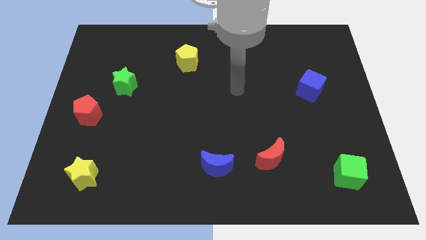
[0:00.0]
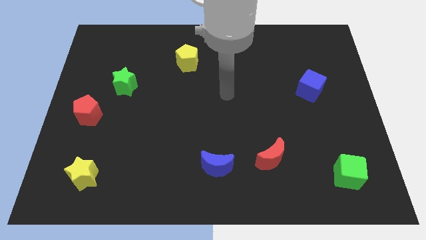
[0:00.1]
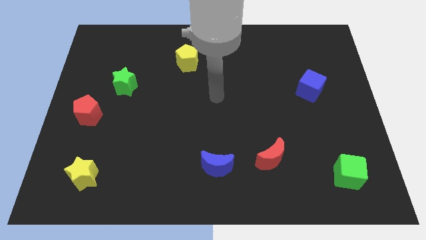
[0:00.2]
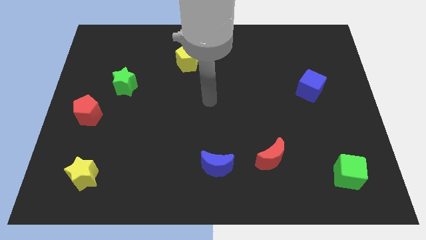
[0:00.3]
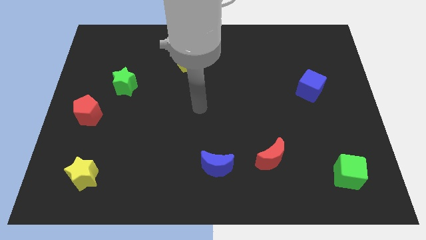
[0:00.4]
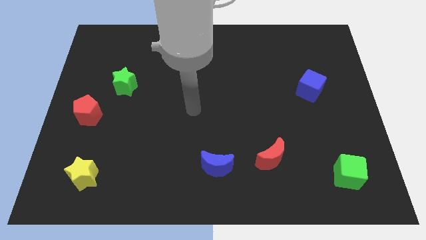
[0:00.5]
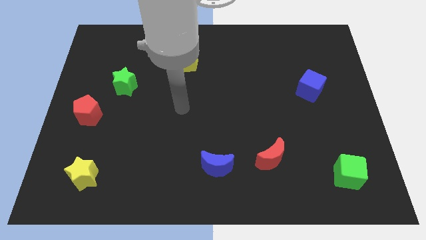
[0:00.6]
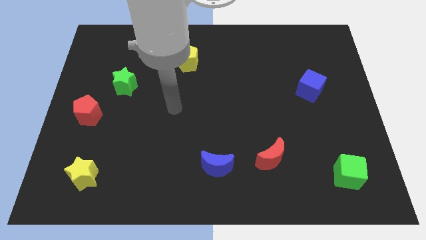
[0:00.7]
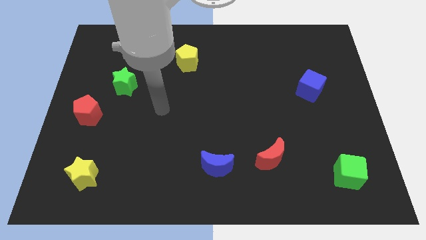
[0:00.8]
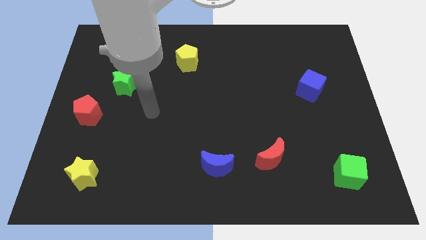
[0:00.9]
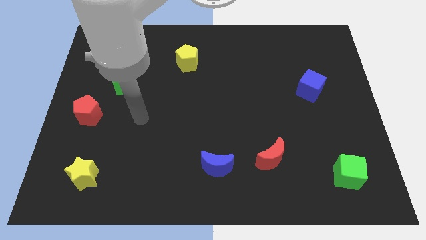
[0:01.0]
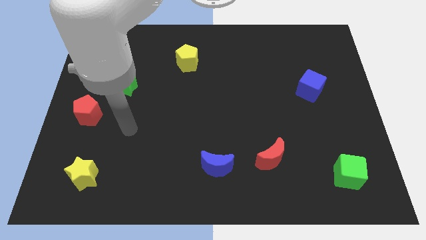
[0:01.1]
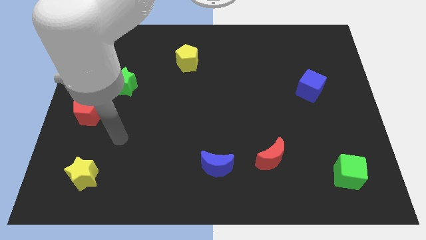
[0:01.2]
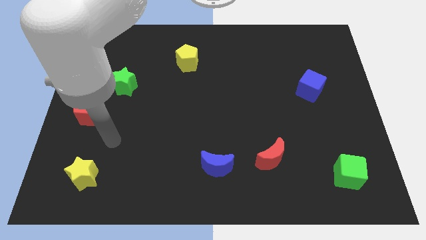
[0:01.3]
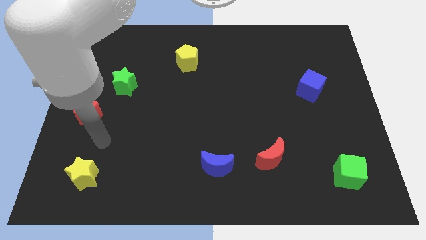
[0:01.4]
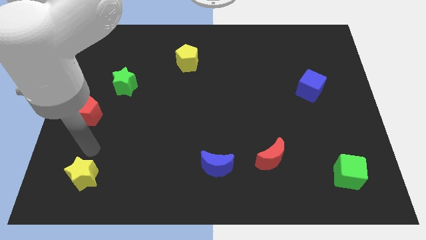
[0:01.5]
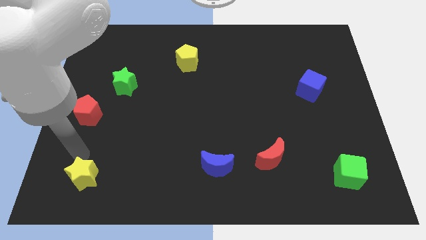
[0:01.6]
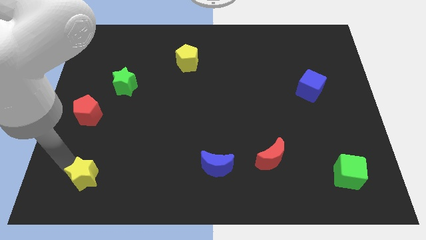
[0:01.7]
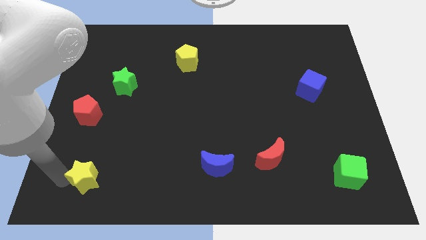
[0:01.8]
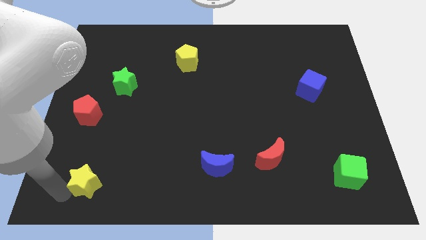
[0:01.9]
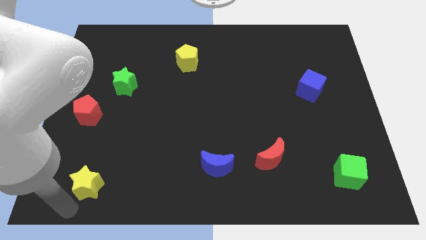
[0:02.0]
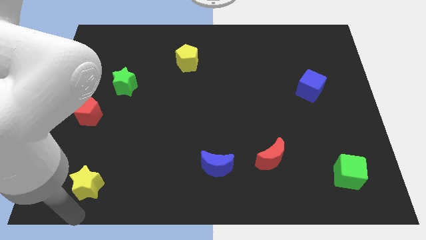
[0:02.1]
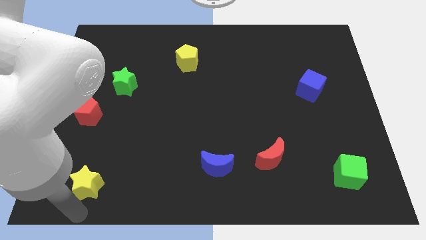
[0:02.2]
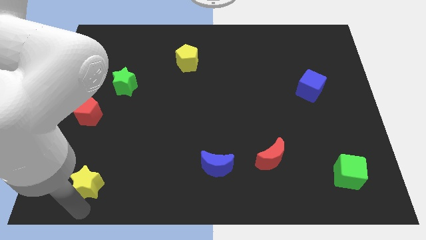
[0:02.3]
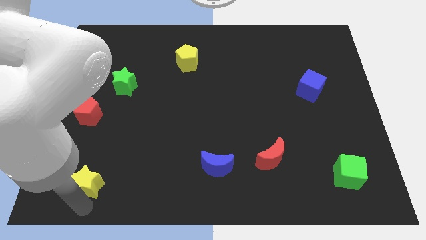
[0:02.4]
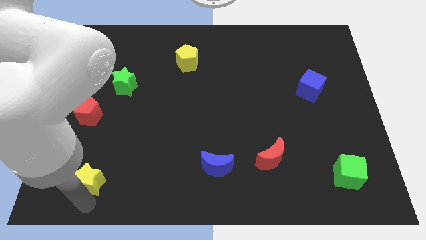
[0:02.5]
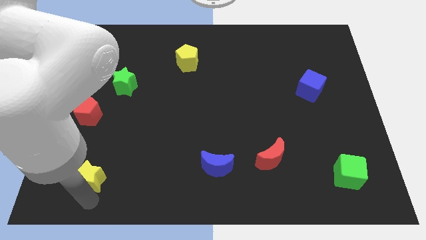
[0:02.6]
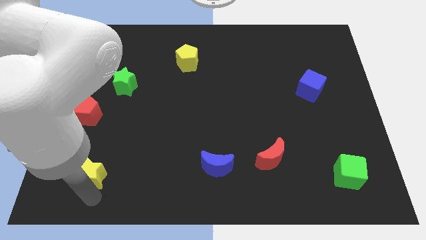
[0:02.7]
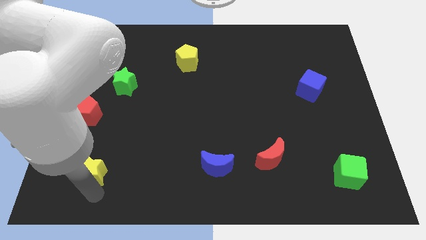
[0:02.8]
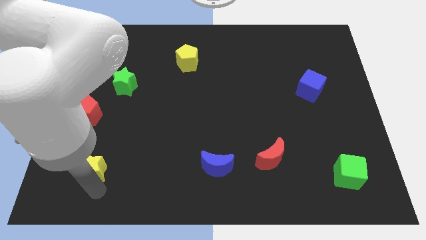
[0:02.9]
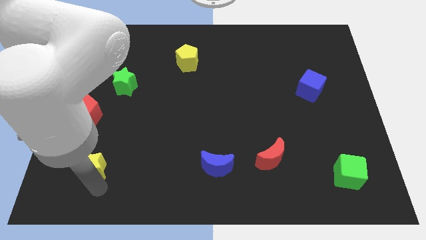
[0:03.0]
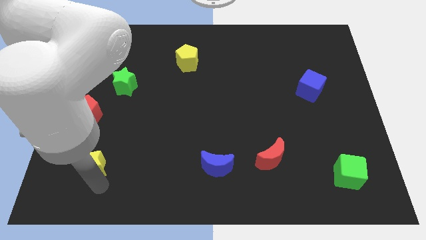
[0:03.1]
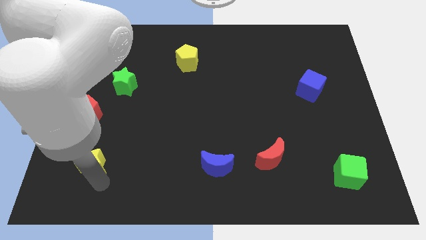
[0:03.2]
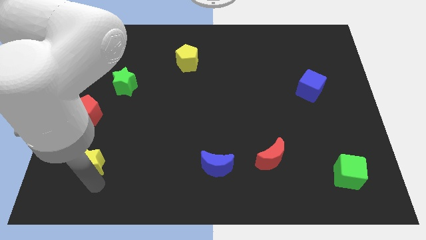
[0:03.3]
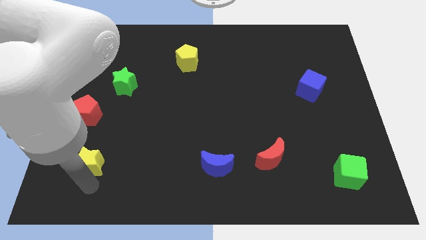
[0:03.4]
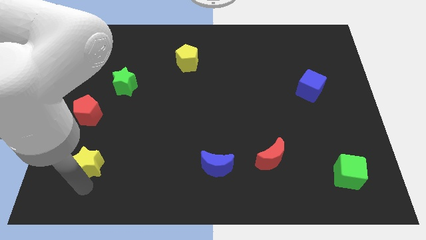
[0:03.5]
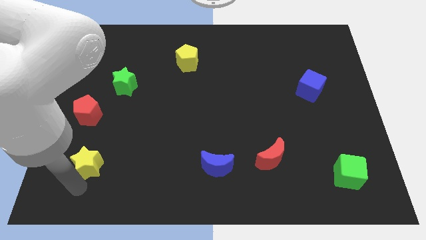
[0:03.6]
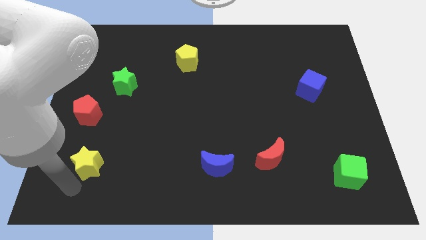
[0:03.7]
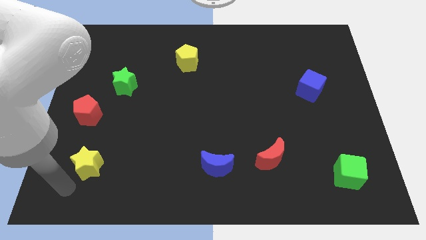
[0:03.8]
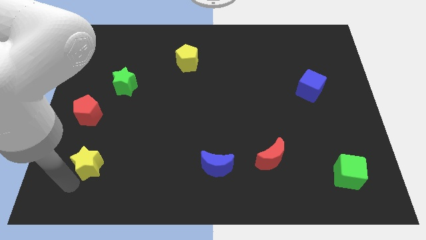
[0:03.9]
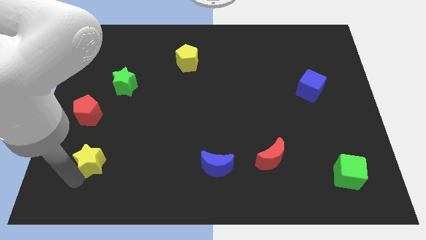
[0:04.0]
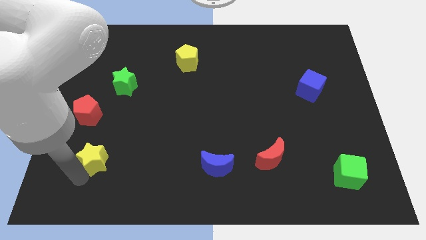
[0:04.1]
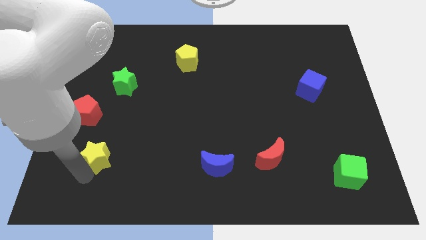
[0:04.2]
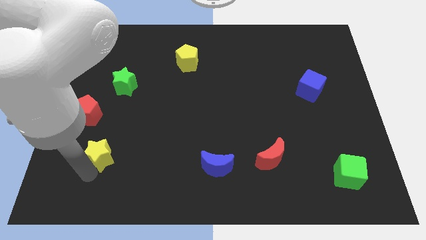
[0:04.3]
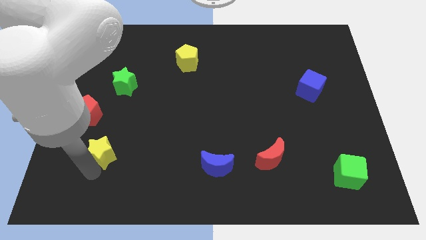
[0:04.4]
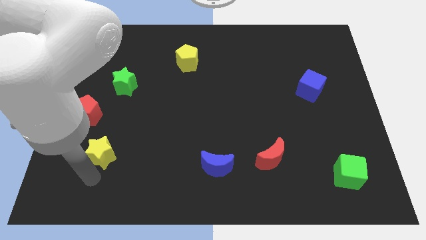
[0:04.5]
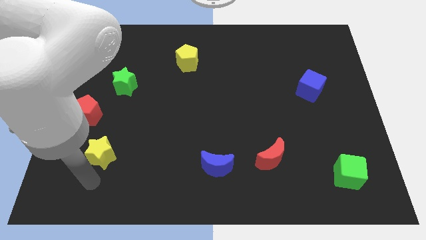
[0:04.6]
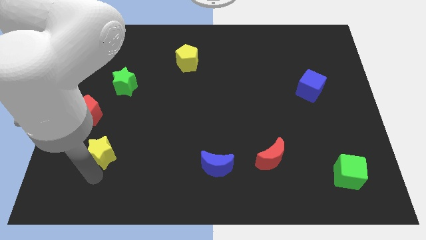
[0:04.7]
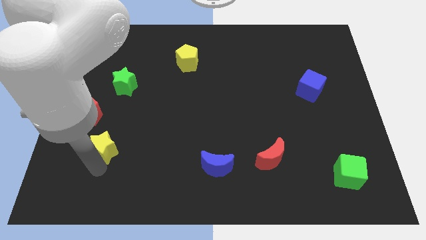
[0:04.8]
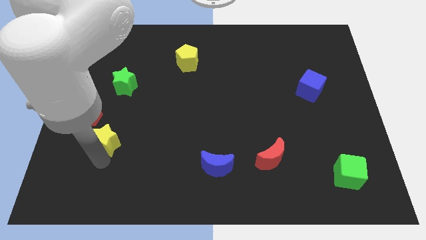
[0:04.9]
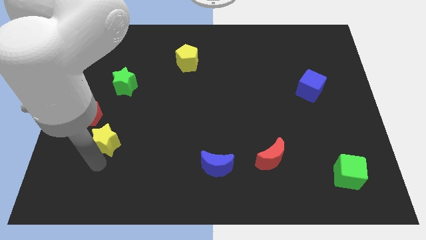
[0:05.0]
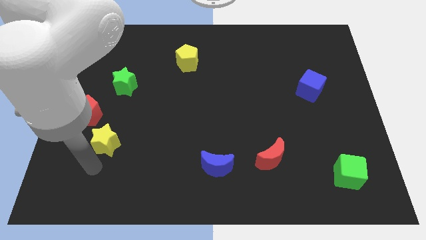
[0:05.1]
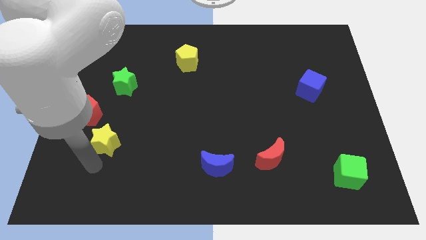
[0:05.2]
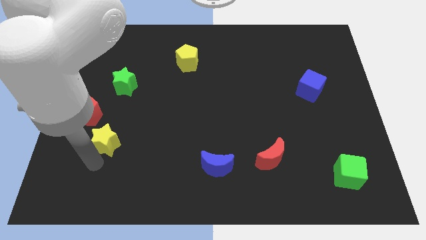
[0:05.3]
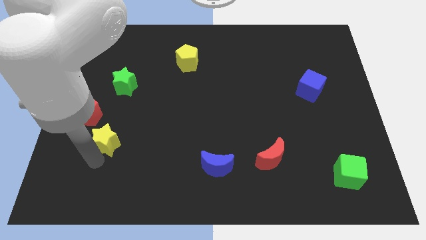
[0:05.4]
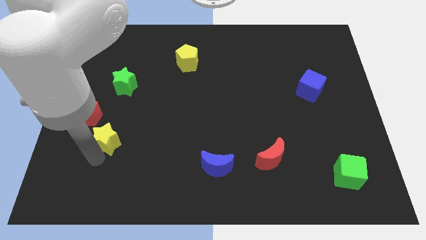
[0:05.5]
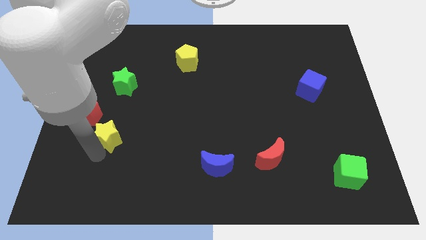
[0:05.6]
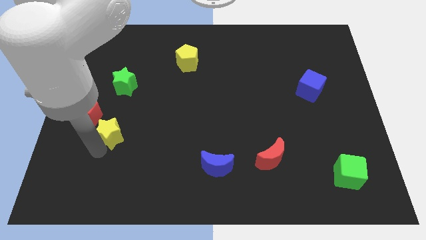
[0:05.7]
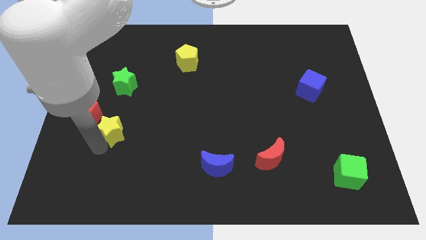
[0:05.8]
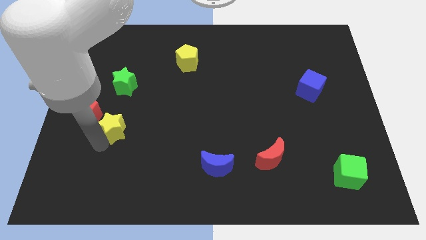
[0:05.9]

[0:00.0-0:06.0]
slide the yellow star right of the red pentagon

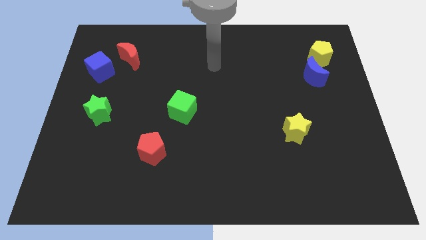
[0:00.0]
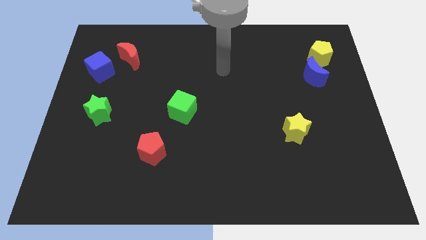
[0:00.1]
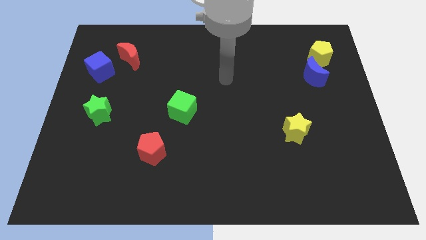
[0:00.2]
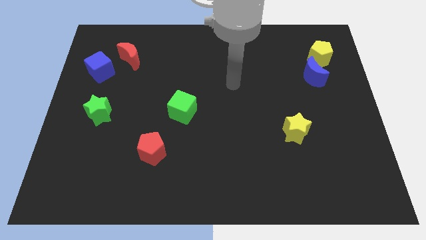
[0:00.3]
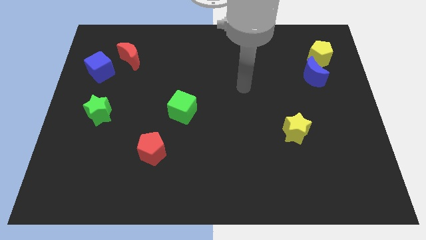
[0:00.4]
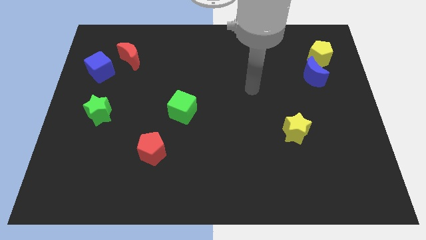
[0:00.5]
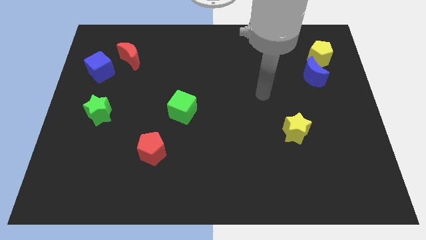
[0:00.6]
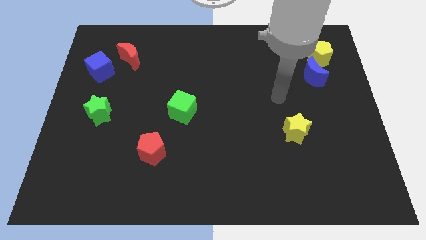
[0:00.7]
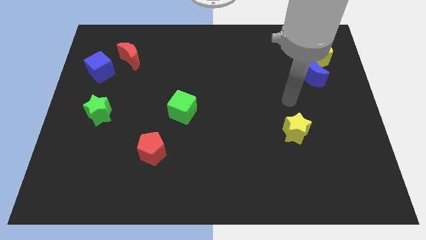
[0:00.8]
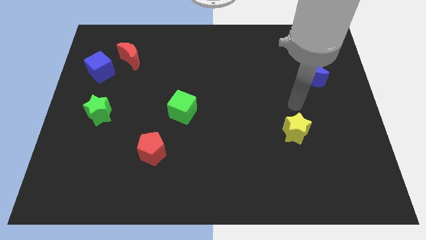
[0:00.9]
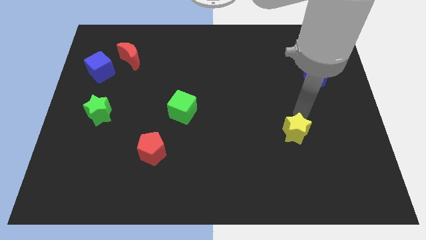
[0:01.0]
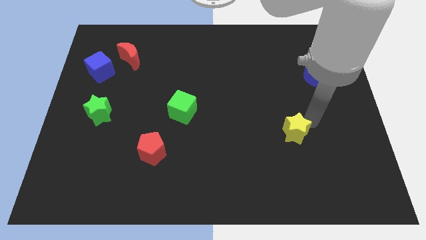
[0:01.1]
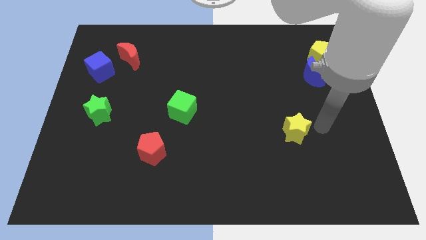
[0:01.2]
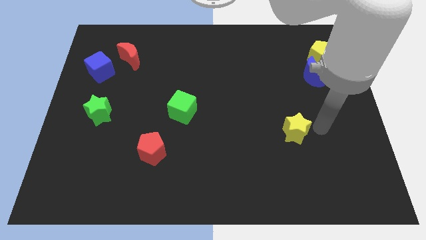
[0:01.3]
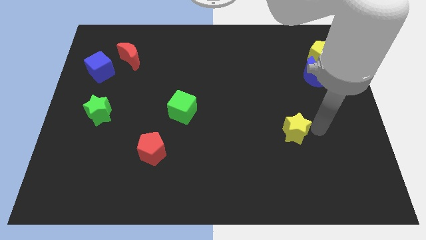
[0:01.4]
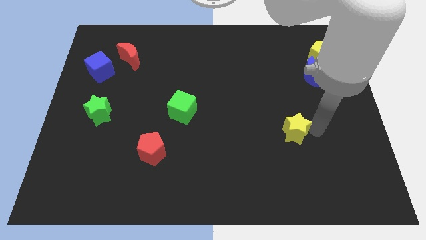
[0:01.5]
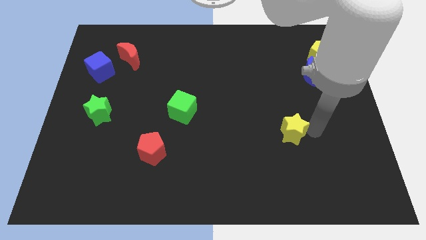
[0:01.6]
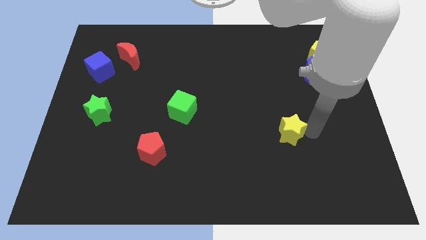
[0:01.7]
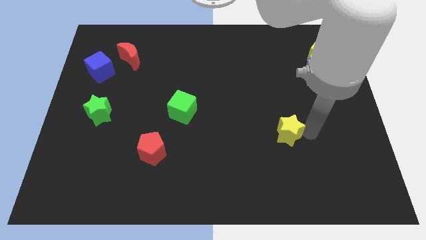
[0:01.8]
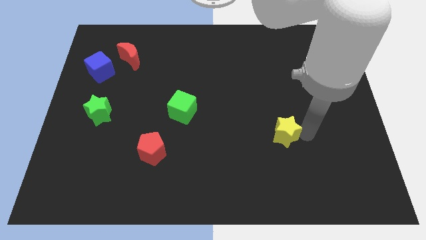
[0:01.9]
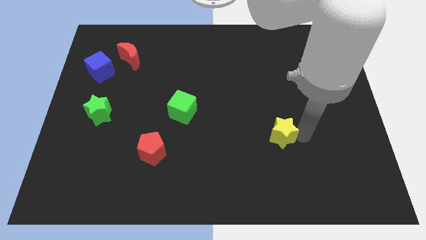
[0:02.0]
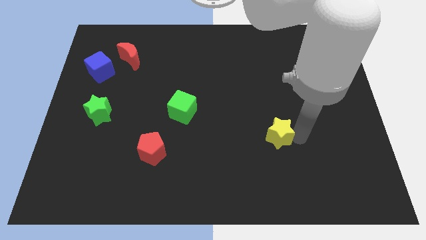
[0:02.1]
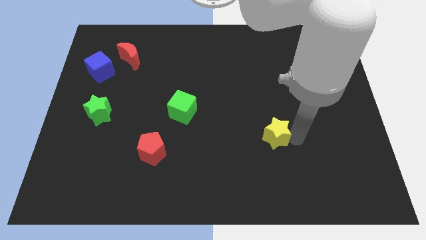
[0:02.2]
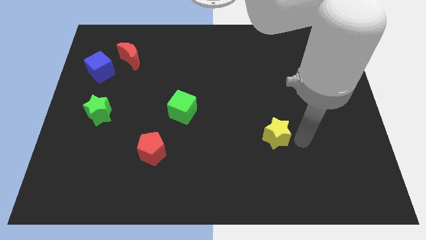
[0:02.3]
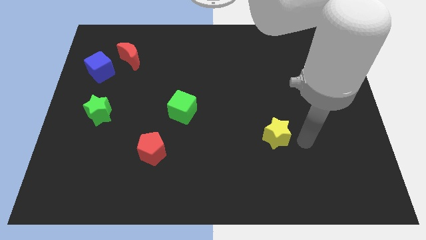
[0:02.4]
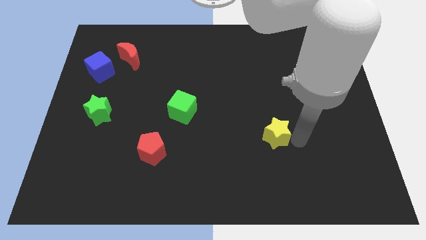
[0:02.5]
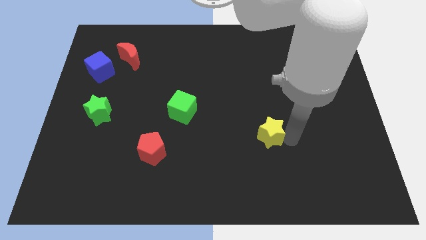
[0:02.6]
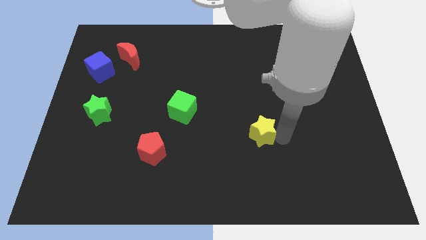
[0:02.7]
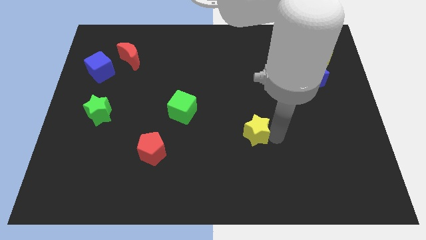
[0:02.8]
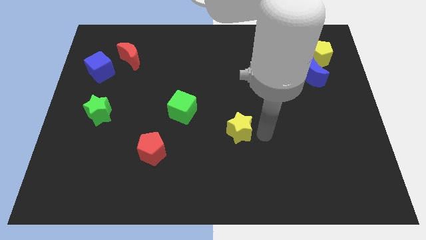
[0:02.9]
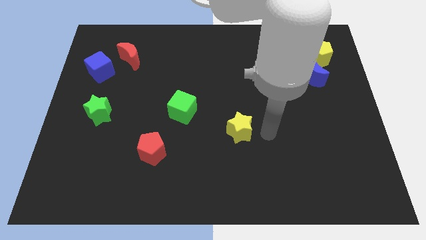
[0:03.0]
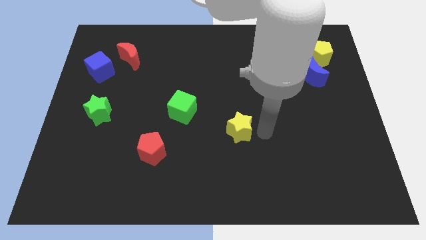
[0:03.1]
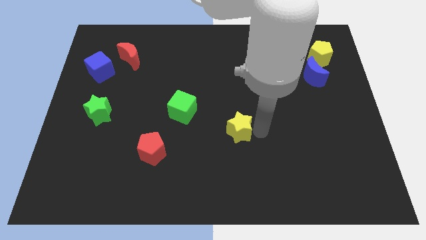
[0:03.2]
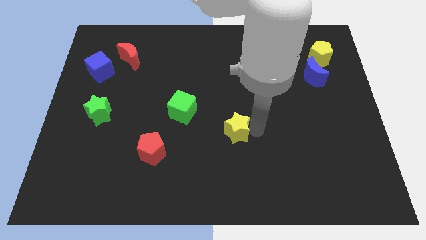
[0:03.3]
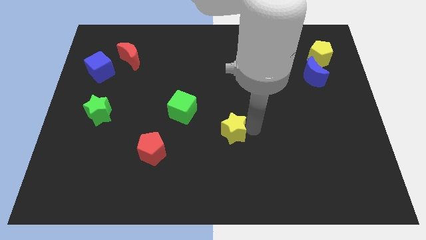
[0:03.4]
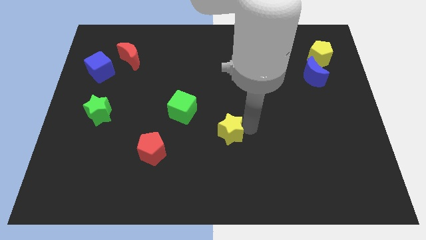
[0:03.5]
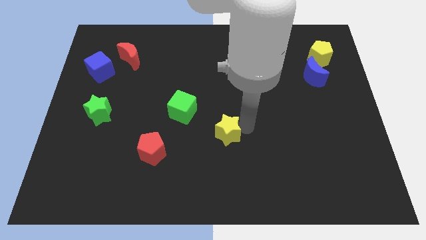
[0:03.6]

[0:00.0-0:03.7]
slide the yellow star to the bottom right of the green cube
